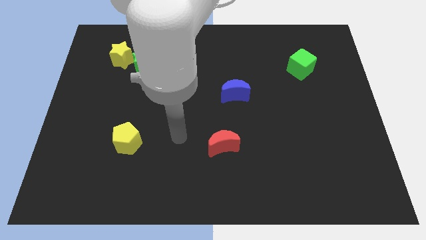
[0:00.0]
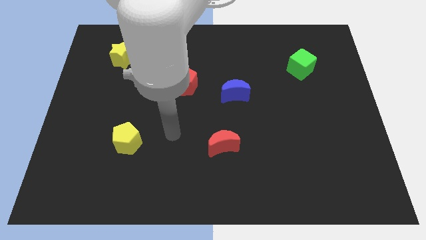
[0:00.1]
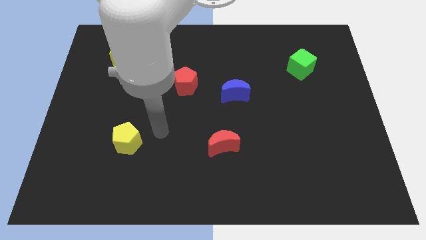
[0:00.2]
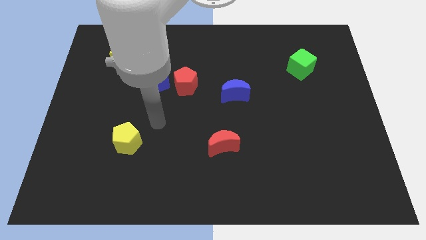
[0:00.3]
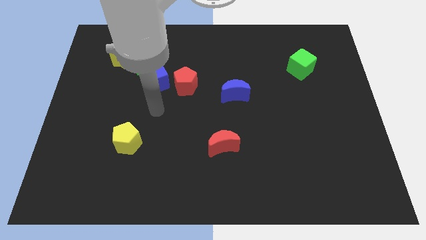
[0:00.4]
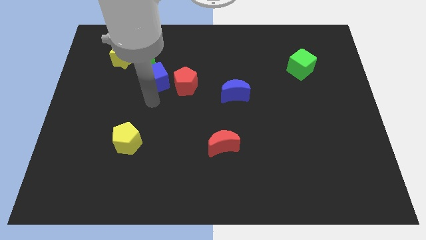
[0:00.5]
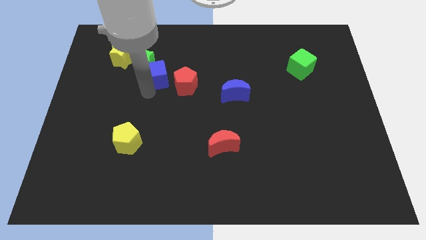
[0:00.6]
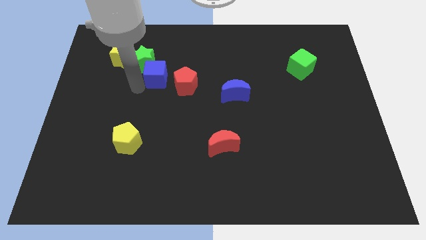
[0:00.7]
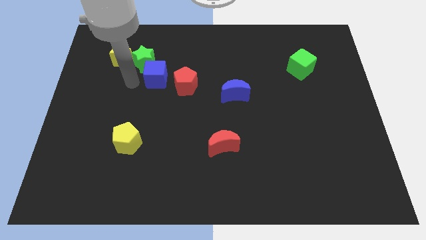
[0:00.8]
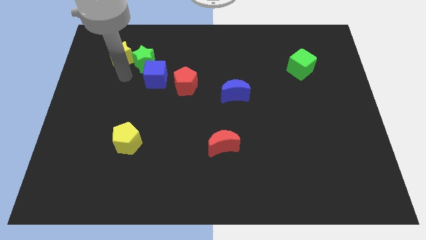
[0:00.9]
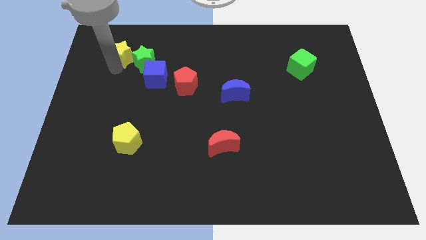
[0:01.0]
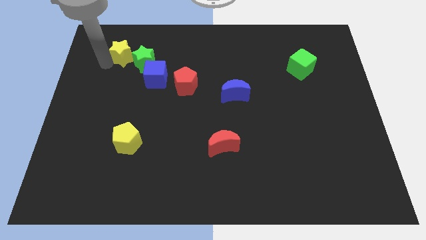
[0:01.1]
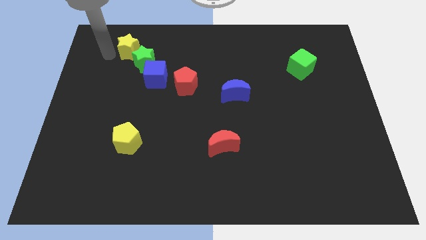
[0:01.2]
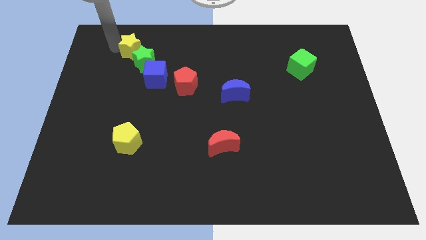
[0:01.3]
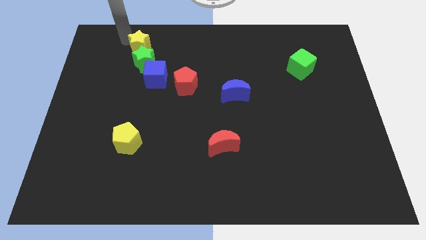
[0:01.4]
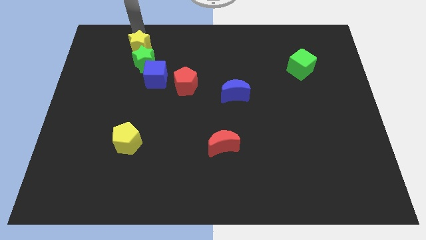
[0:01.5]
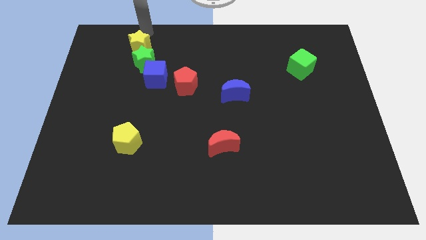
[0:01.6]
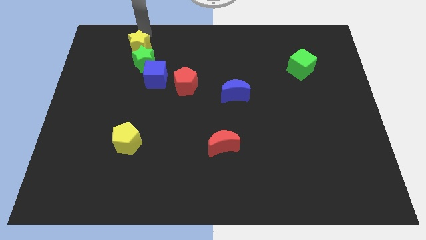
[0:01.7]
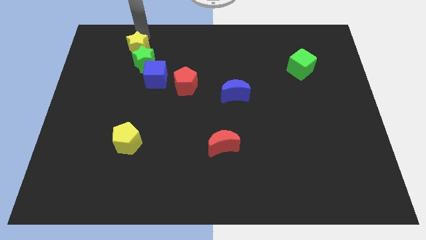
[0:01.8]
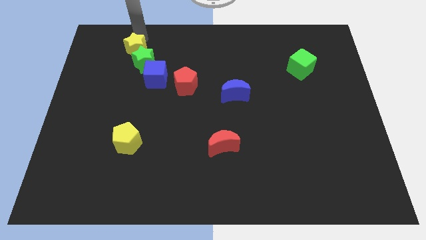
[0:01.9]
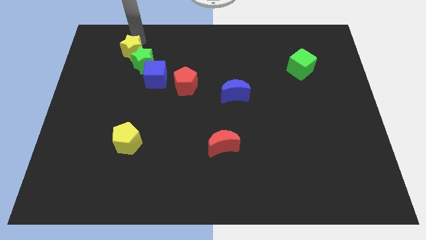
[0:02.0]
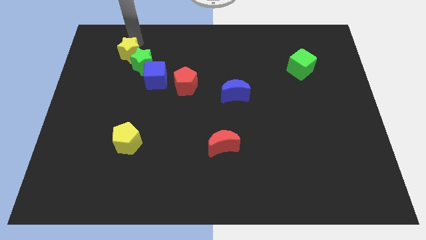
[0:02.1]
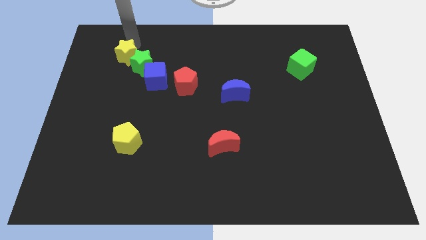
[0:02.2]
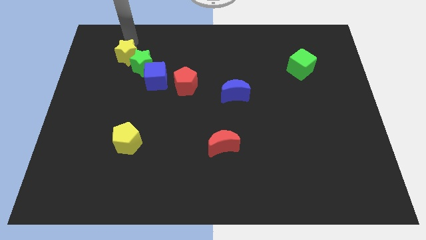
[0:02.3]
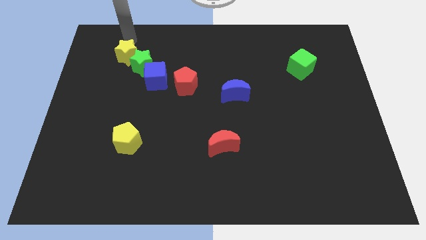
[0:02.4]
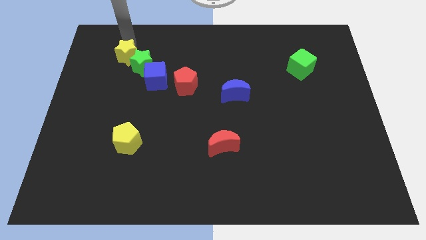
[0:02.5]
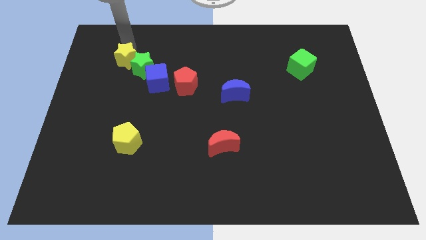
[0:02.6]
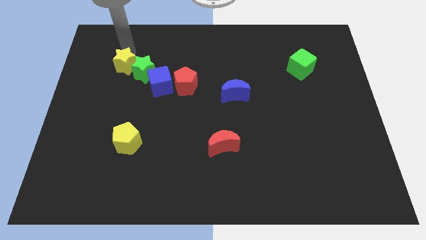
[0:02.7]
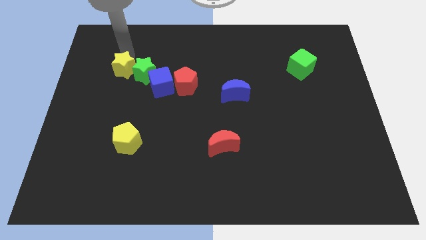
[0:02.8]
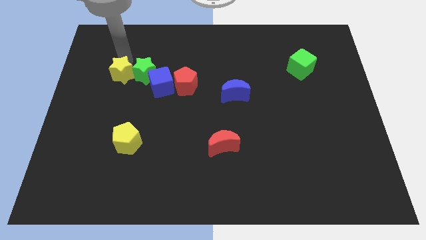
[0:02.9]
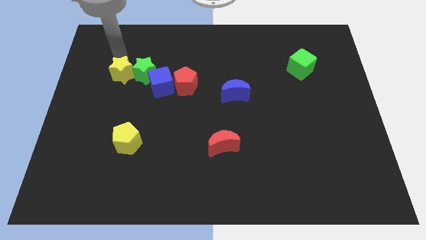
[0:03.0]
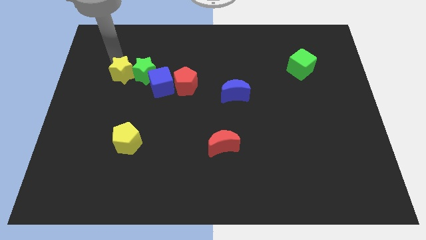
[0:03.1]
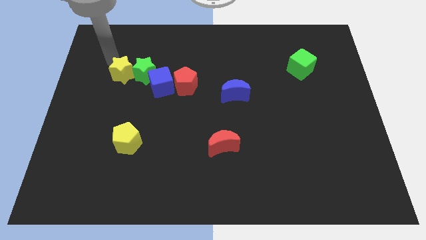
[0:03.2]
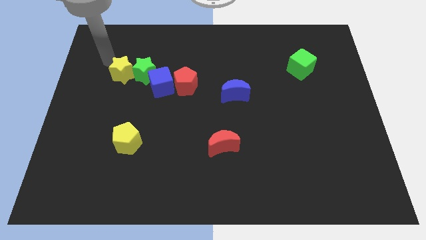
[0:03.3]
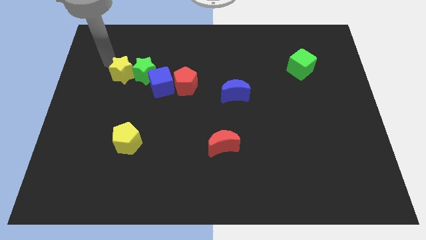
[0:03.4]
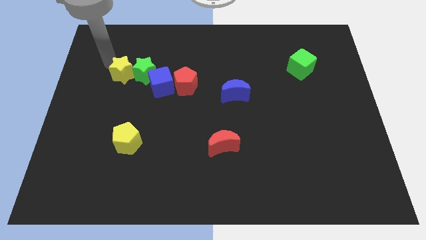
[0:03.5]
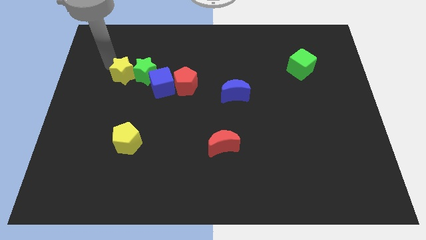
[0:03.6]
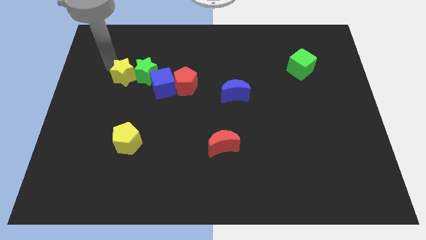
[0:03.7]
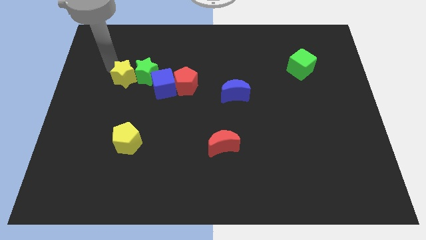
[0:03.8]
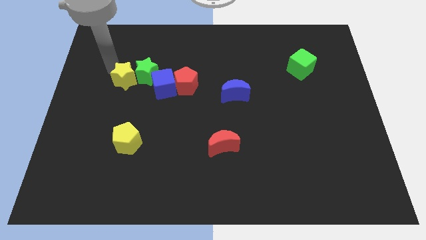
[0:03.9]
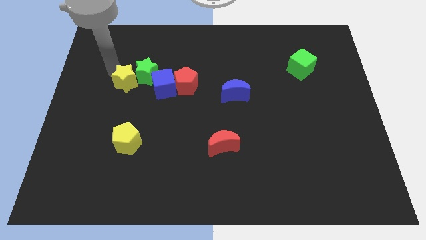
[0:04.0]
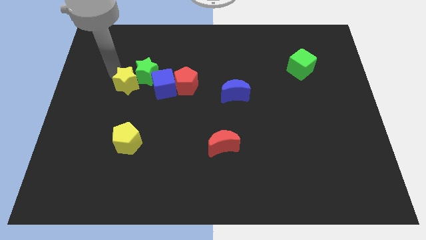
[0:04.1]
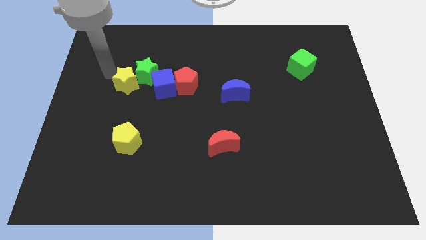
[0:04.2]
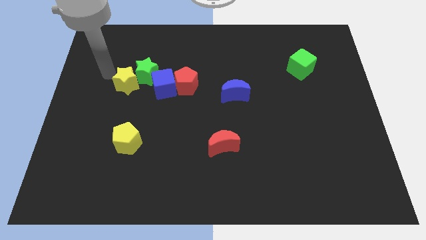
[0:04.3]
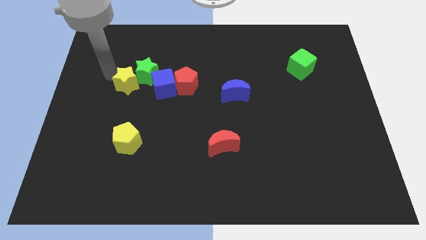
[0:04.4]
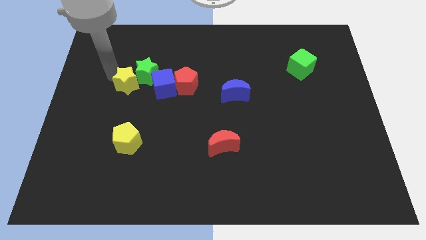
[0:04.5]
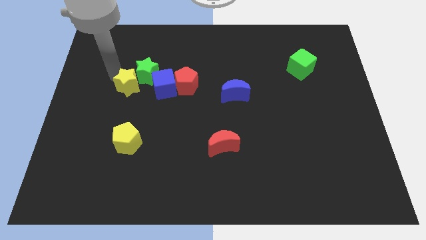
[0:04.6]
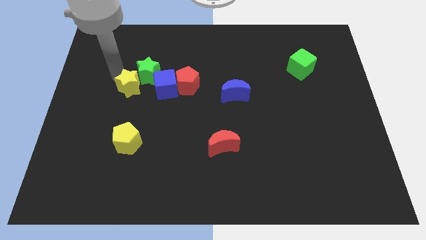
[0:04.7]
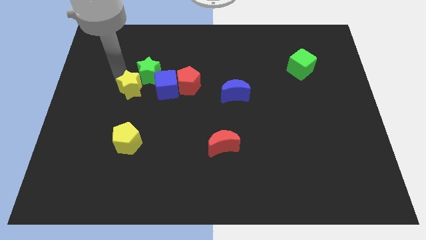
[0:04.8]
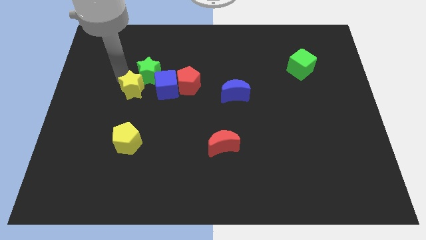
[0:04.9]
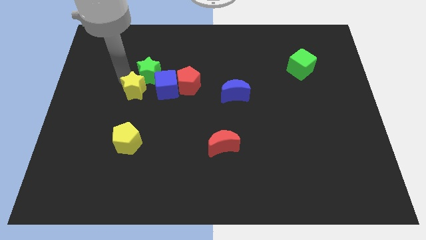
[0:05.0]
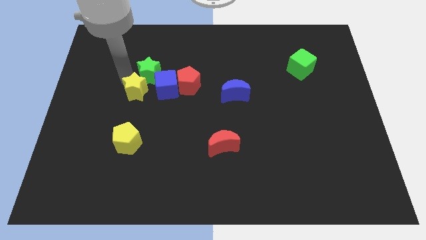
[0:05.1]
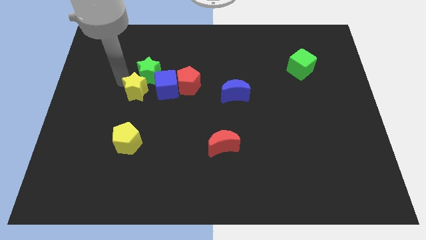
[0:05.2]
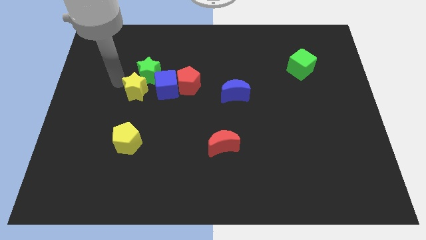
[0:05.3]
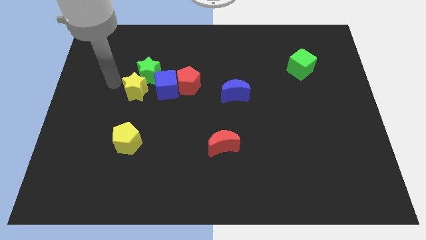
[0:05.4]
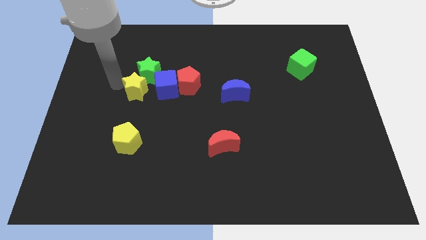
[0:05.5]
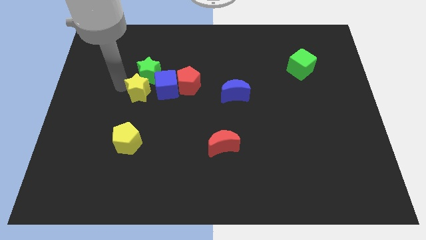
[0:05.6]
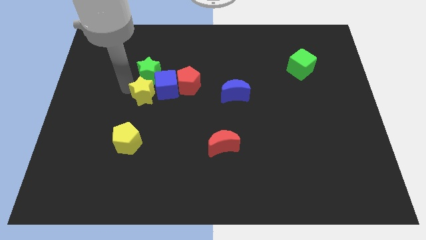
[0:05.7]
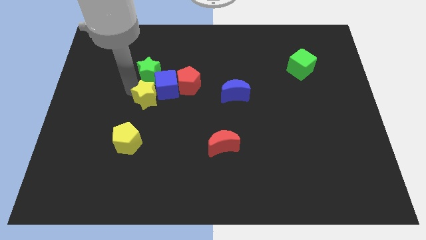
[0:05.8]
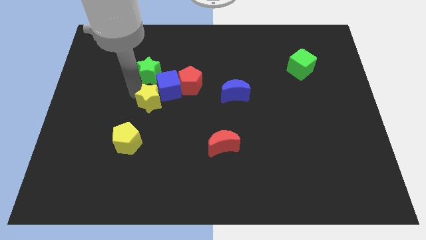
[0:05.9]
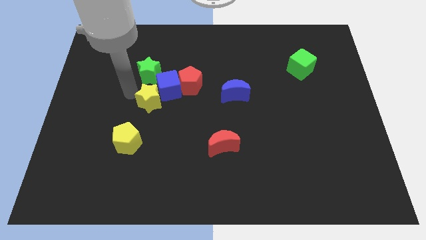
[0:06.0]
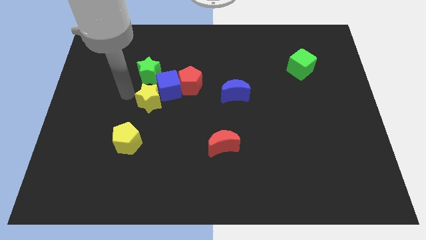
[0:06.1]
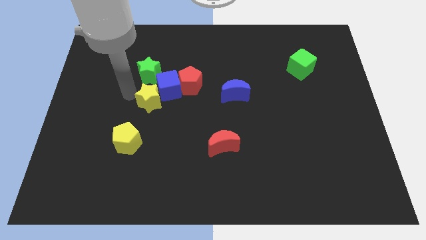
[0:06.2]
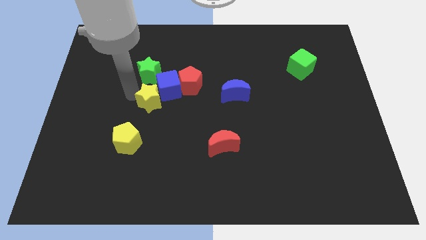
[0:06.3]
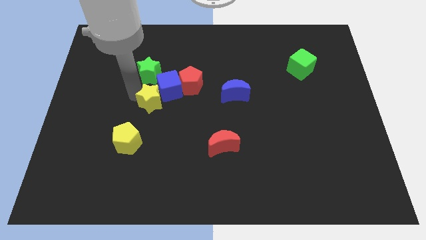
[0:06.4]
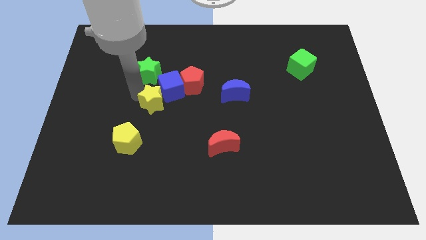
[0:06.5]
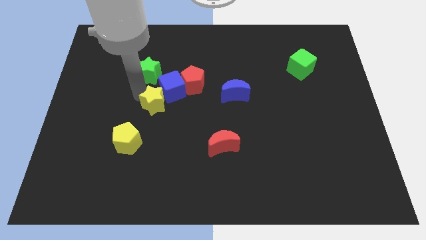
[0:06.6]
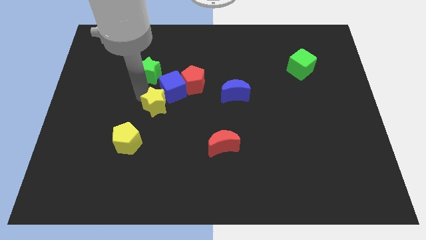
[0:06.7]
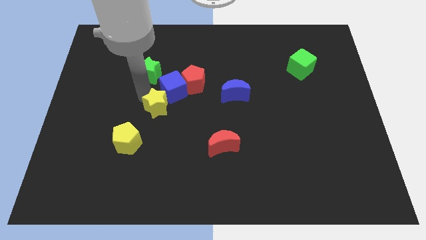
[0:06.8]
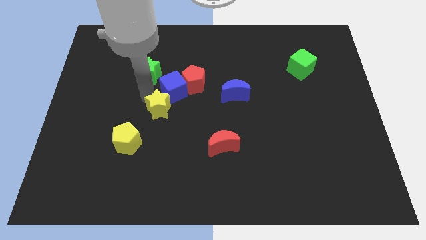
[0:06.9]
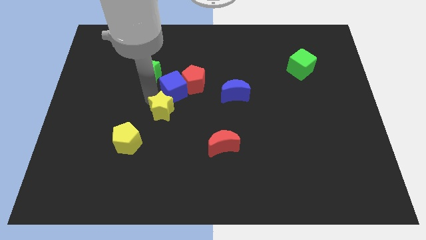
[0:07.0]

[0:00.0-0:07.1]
push the yellow star downwards and to the right diagonally

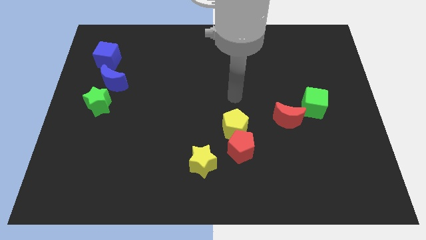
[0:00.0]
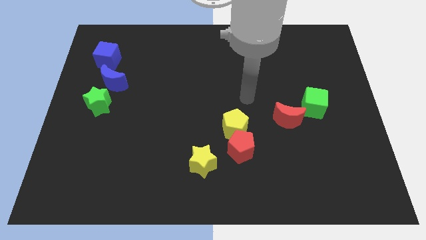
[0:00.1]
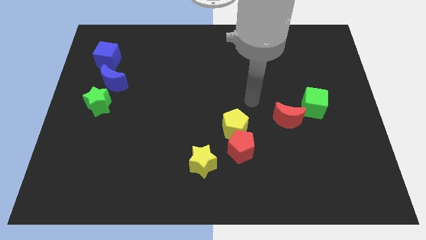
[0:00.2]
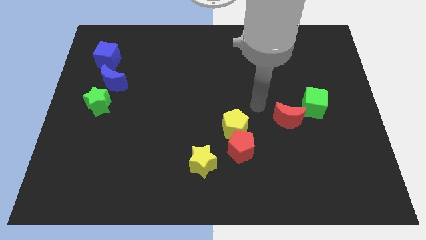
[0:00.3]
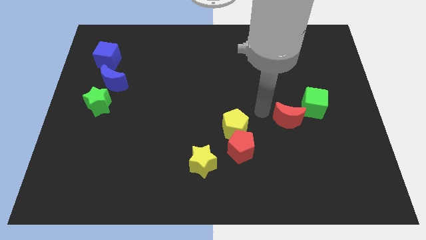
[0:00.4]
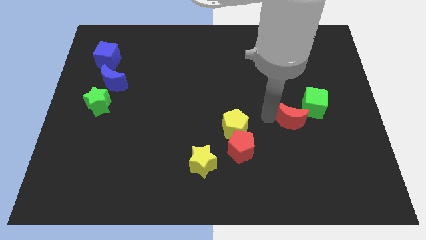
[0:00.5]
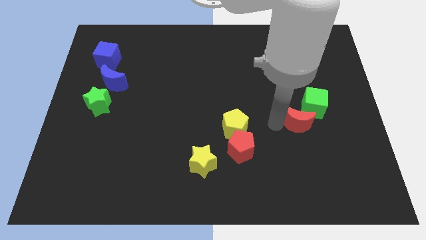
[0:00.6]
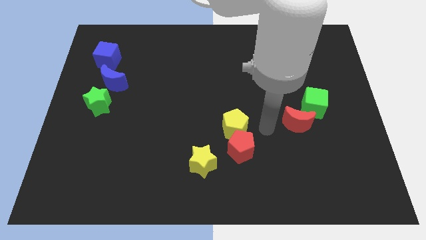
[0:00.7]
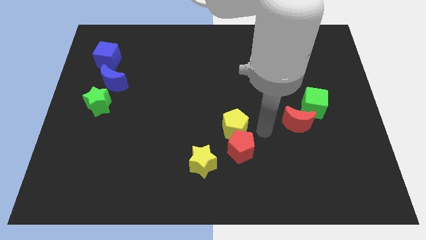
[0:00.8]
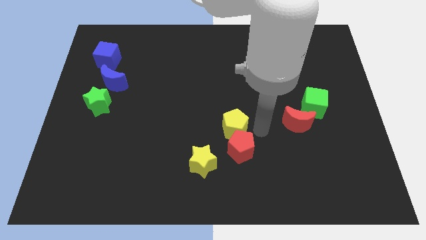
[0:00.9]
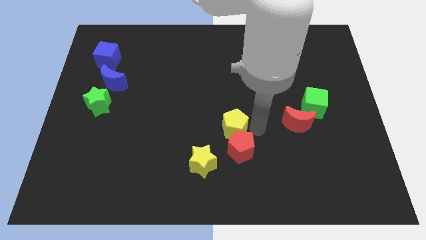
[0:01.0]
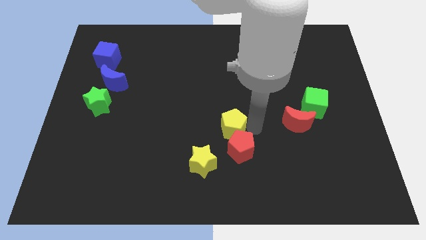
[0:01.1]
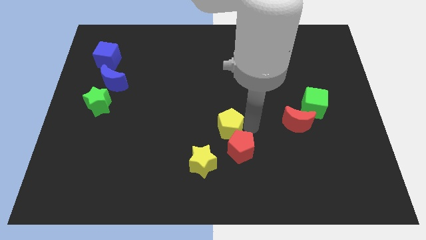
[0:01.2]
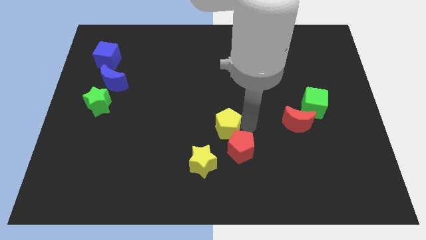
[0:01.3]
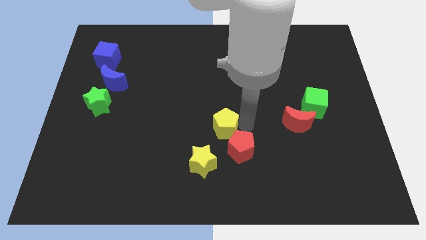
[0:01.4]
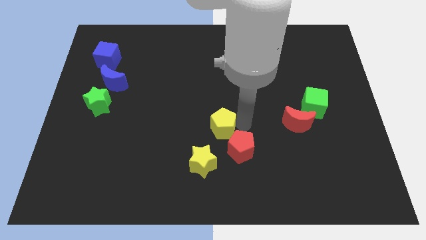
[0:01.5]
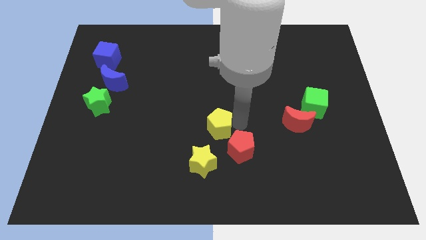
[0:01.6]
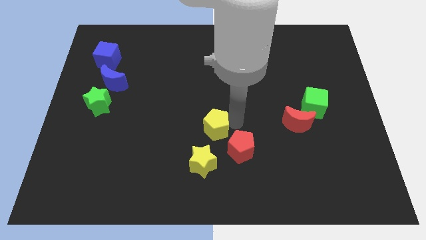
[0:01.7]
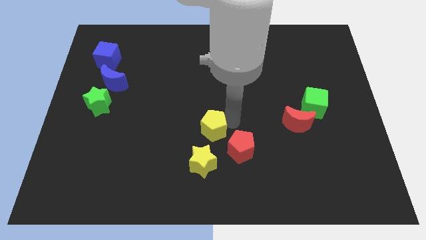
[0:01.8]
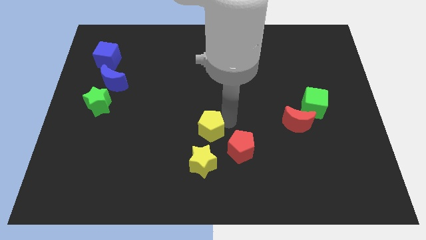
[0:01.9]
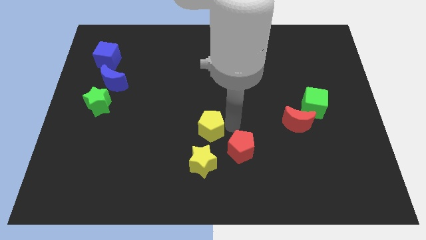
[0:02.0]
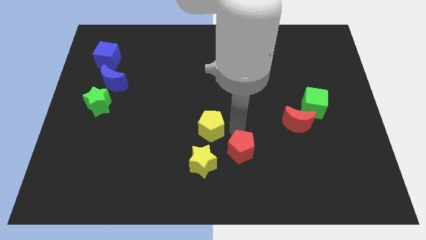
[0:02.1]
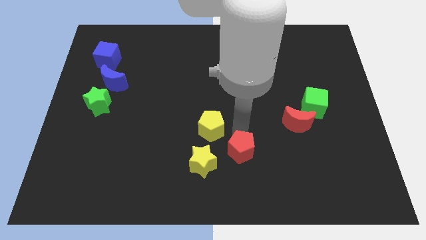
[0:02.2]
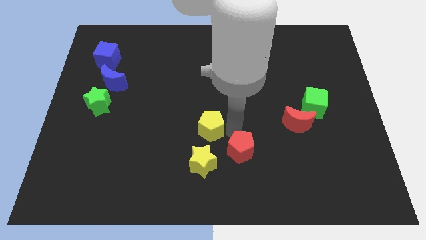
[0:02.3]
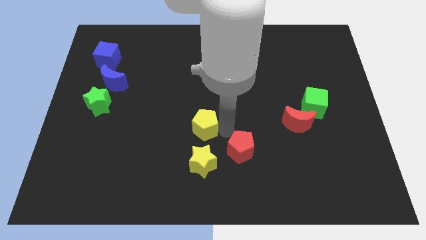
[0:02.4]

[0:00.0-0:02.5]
move the yellow pentagon slightly to the left
